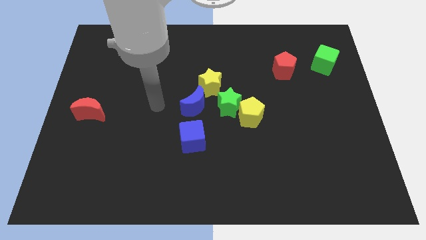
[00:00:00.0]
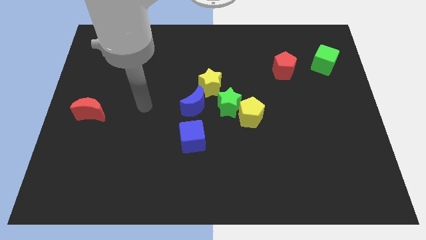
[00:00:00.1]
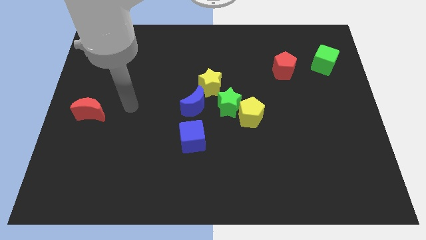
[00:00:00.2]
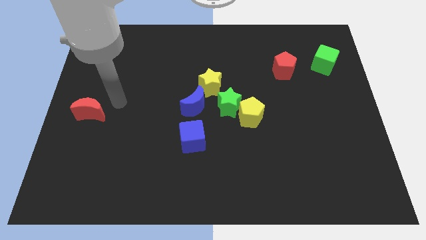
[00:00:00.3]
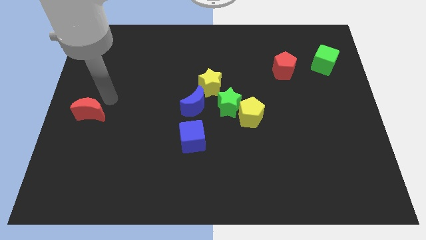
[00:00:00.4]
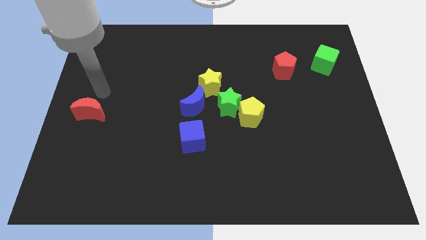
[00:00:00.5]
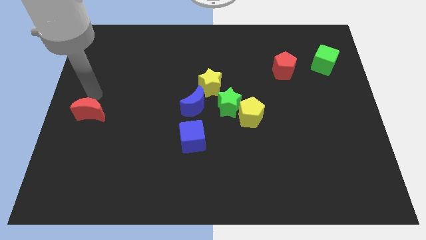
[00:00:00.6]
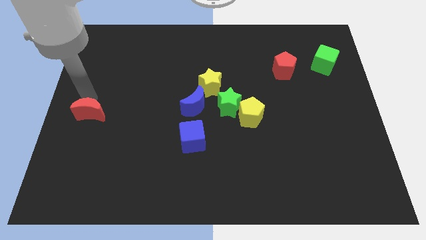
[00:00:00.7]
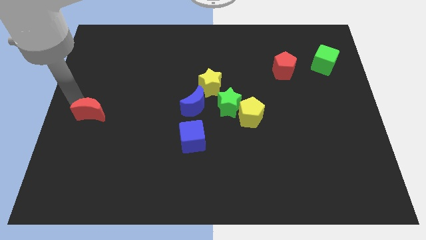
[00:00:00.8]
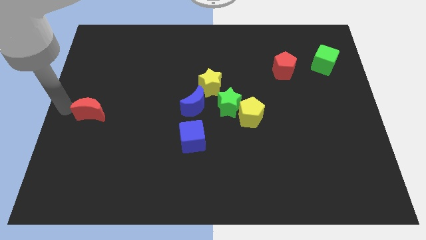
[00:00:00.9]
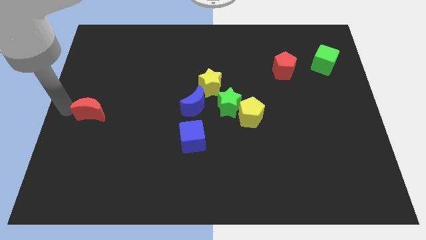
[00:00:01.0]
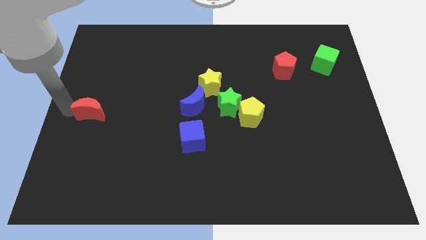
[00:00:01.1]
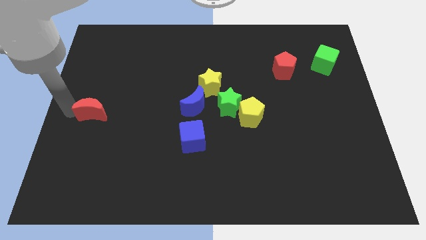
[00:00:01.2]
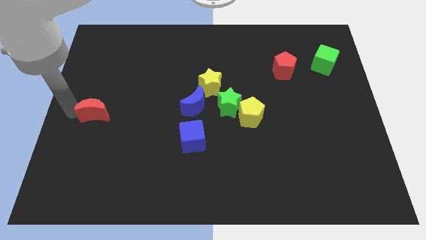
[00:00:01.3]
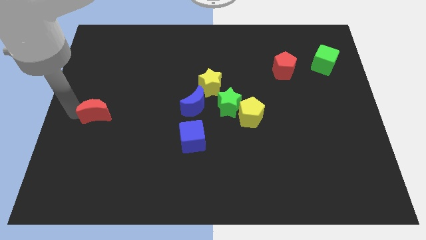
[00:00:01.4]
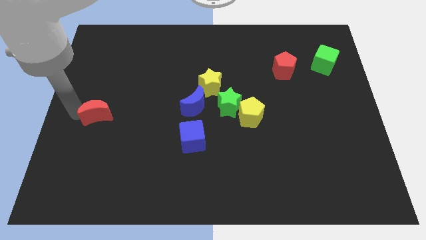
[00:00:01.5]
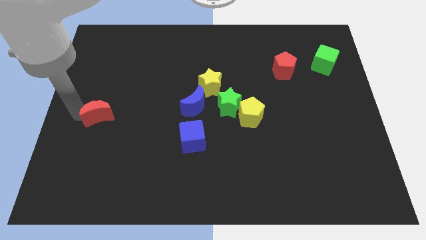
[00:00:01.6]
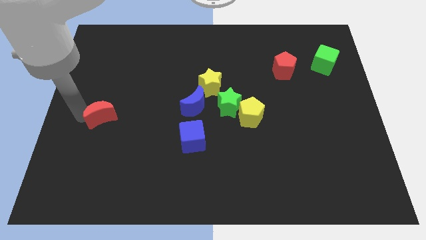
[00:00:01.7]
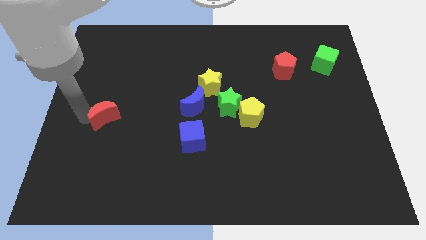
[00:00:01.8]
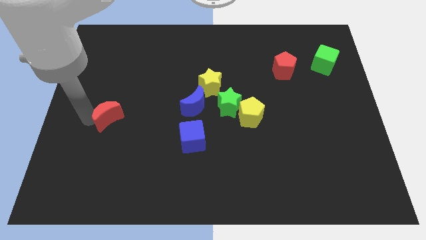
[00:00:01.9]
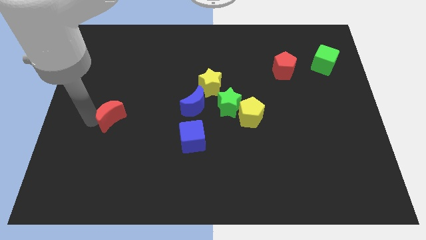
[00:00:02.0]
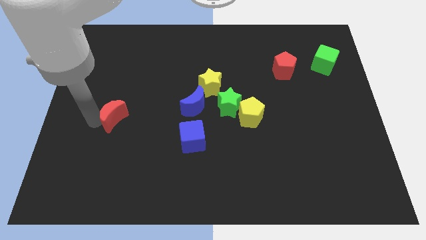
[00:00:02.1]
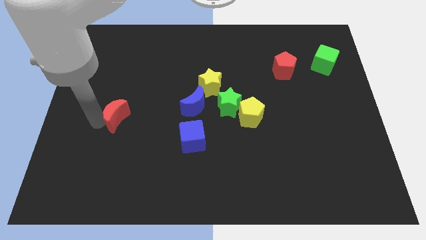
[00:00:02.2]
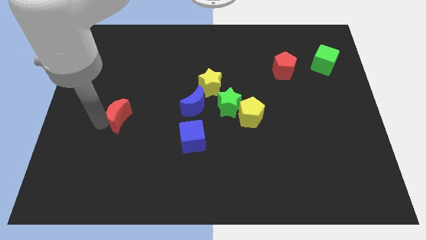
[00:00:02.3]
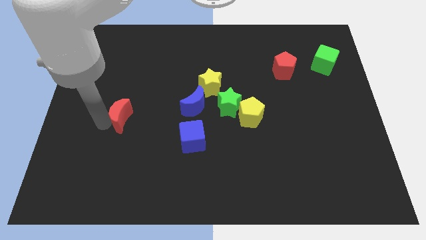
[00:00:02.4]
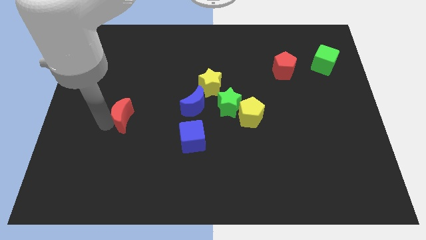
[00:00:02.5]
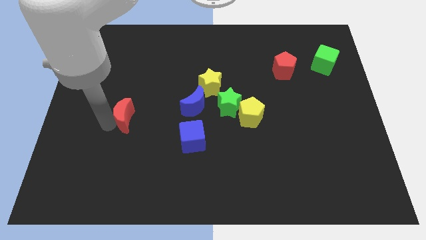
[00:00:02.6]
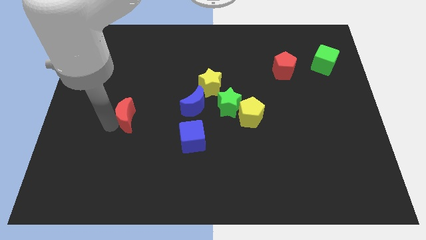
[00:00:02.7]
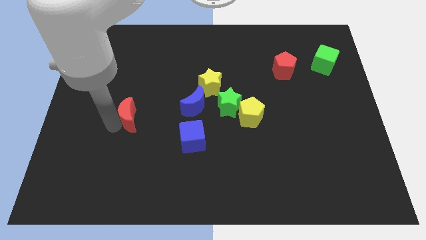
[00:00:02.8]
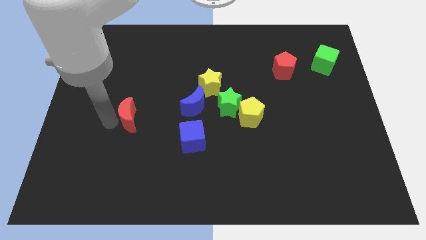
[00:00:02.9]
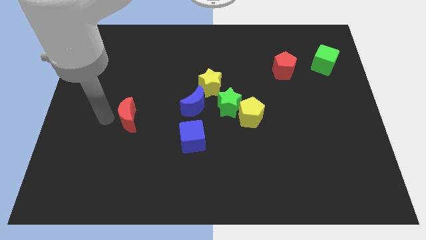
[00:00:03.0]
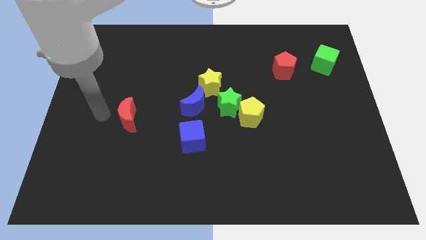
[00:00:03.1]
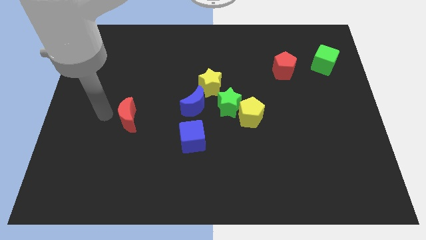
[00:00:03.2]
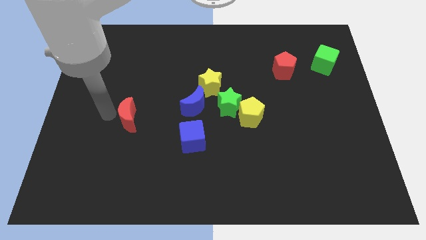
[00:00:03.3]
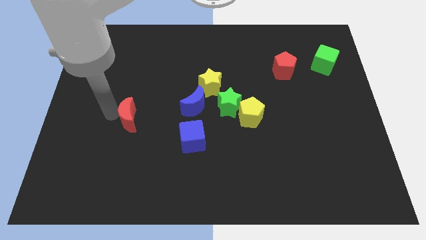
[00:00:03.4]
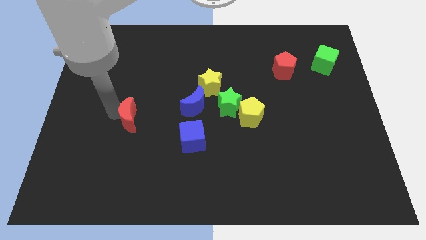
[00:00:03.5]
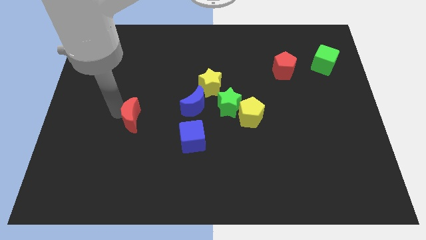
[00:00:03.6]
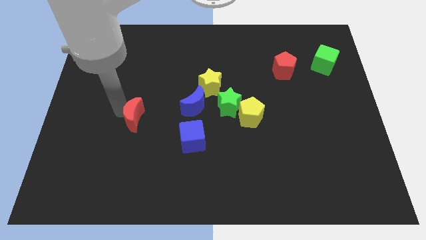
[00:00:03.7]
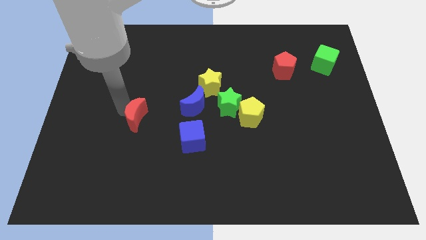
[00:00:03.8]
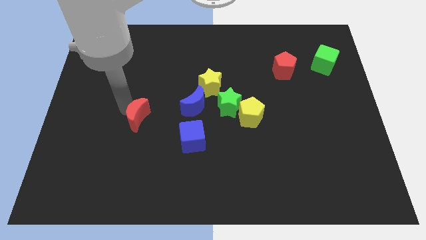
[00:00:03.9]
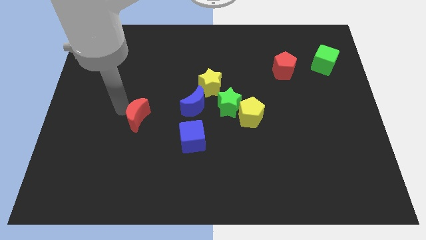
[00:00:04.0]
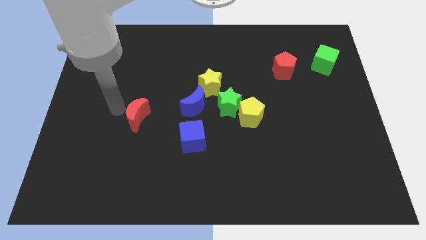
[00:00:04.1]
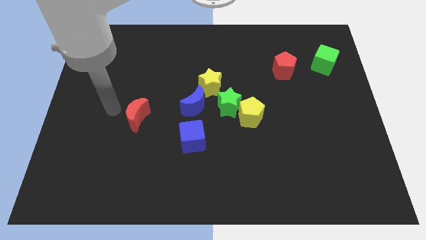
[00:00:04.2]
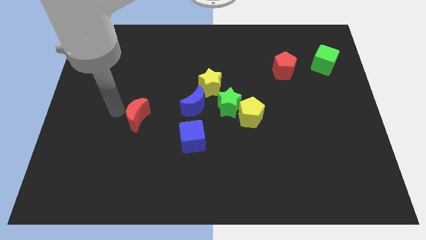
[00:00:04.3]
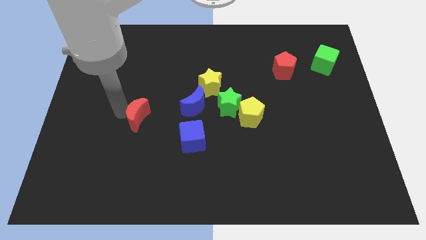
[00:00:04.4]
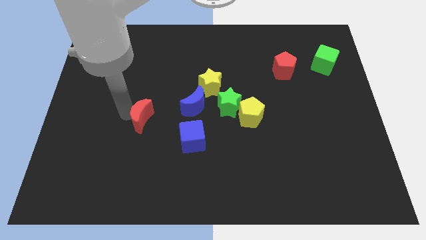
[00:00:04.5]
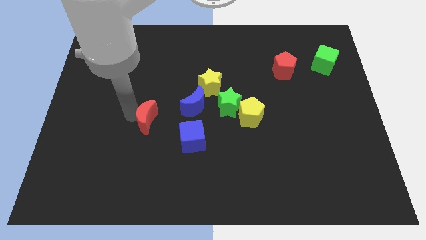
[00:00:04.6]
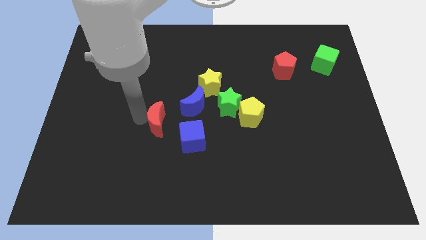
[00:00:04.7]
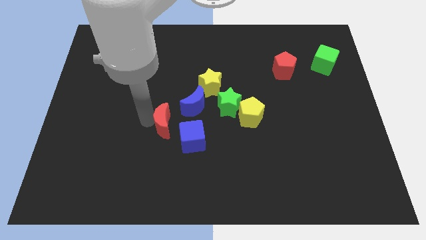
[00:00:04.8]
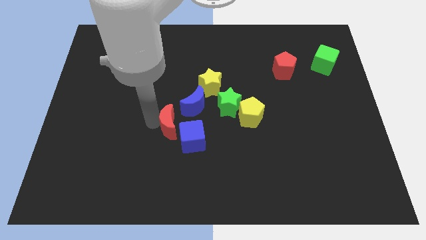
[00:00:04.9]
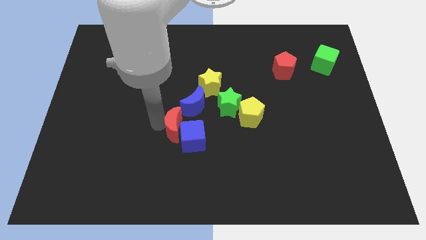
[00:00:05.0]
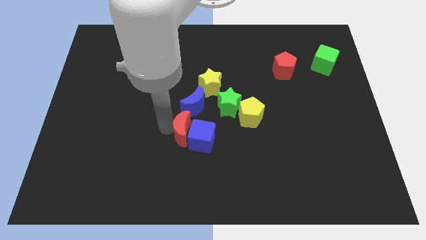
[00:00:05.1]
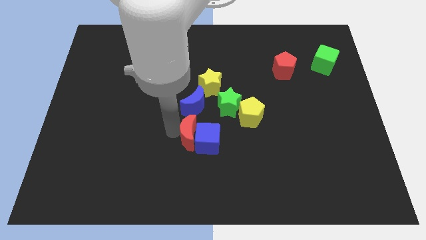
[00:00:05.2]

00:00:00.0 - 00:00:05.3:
move the red moon diagonally down and to the left of the green star

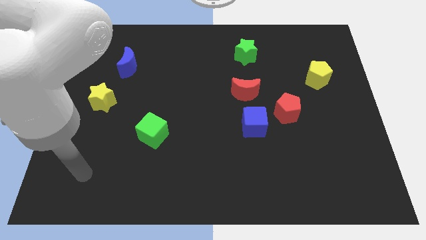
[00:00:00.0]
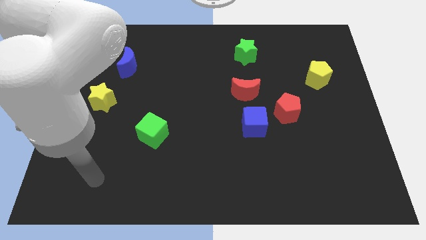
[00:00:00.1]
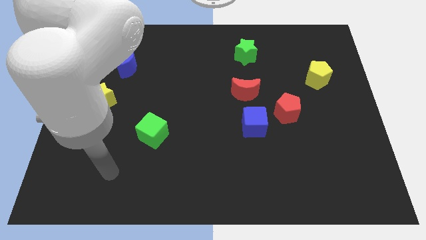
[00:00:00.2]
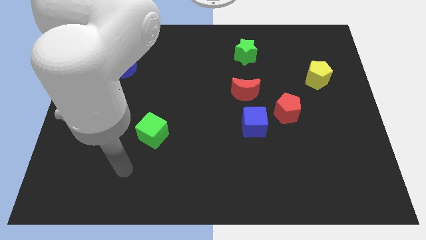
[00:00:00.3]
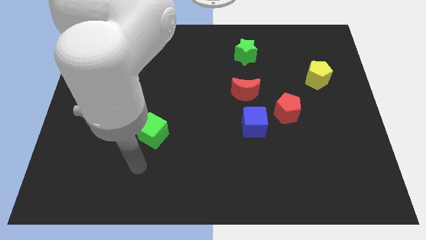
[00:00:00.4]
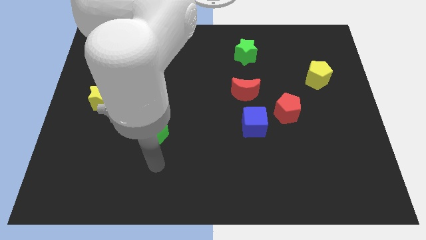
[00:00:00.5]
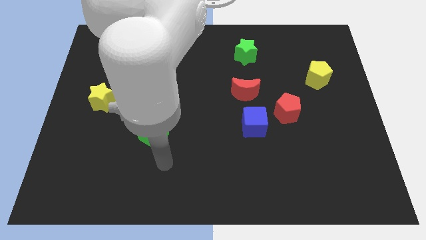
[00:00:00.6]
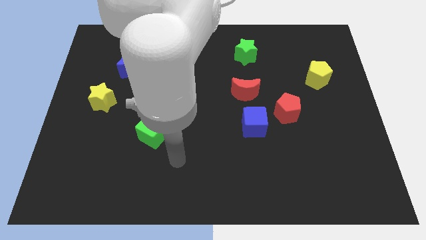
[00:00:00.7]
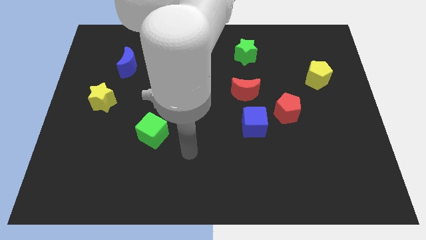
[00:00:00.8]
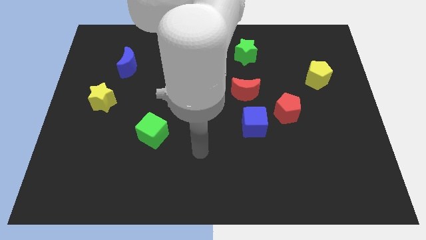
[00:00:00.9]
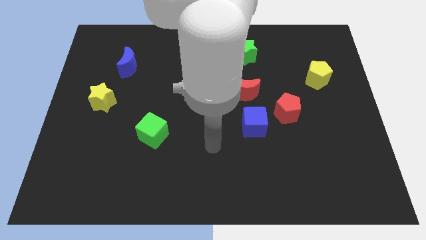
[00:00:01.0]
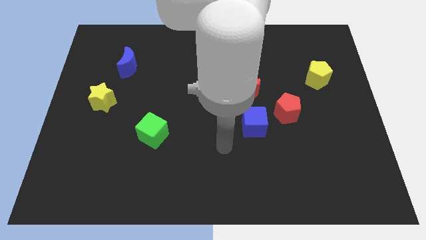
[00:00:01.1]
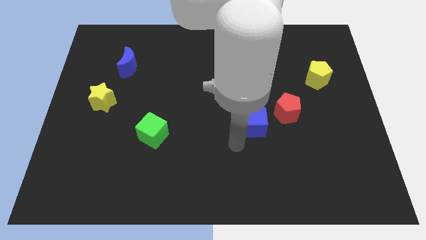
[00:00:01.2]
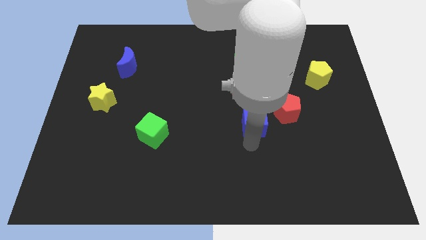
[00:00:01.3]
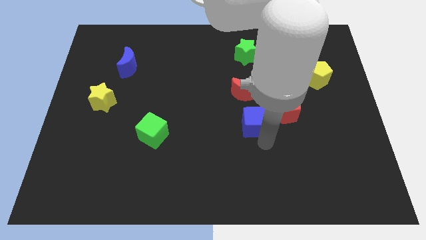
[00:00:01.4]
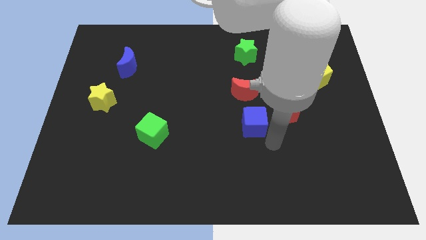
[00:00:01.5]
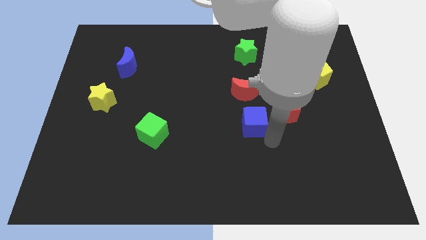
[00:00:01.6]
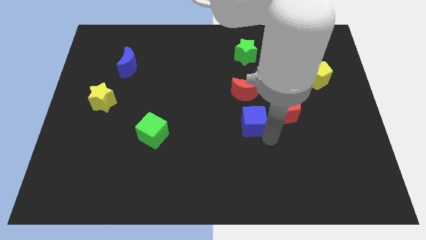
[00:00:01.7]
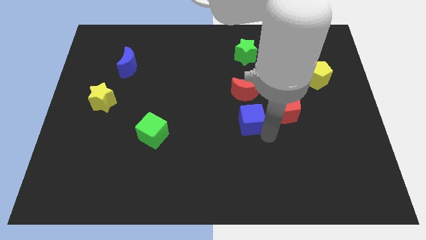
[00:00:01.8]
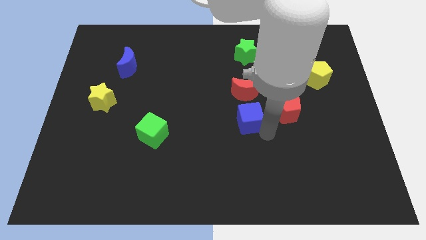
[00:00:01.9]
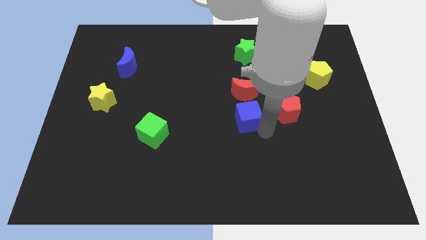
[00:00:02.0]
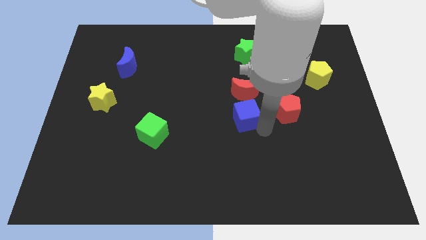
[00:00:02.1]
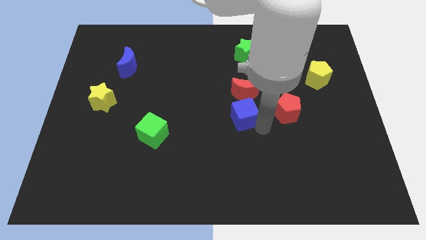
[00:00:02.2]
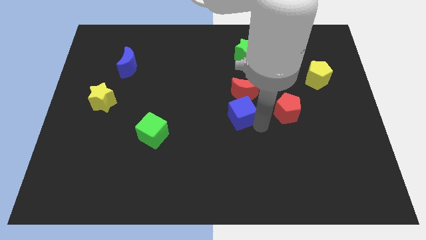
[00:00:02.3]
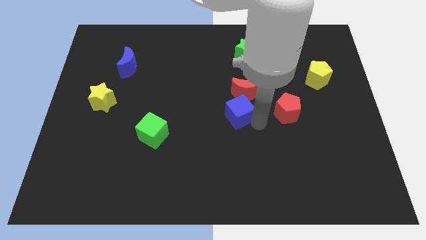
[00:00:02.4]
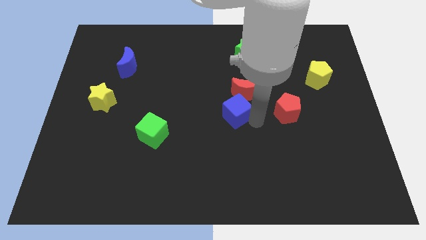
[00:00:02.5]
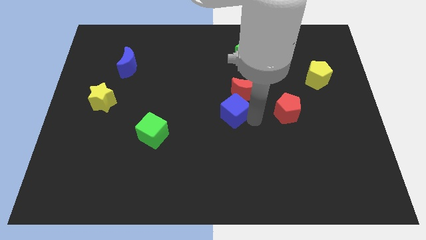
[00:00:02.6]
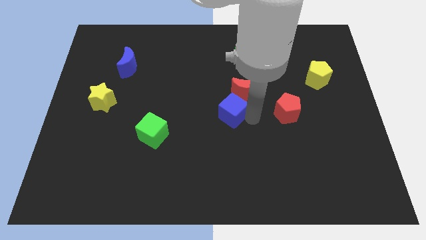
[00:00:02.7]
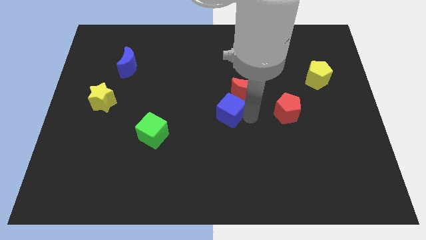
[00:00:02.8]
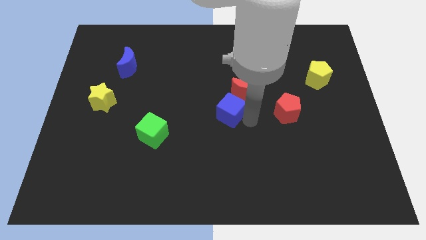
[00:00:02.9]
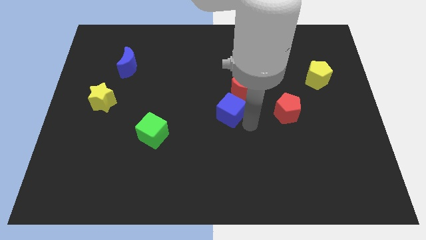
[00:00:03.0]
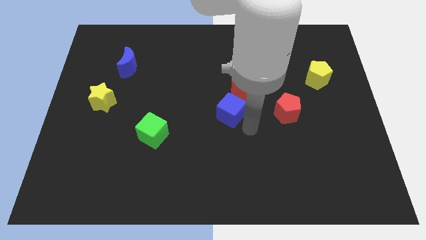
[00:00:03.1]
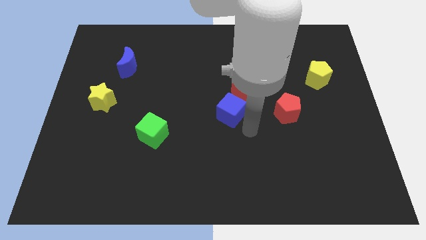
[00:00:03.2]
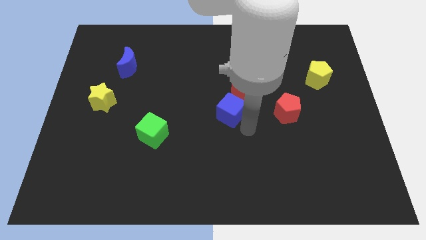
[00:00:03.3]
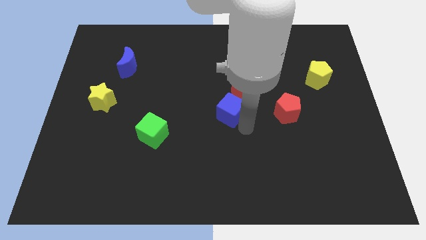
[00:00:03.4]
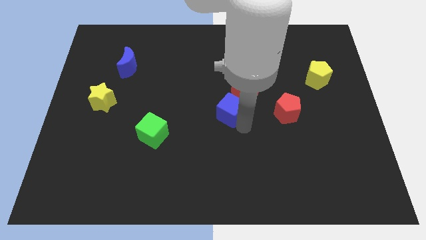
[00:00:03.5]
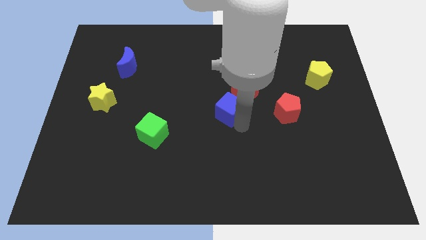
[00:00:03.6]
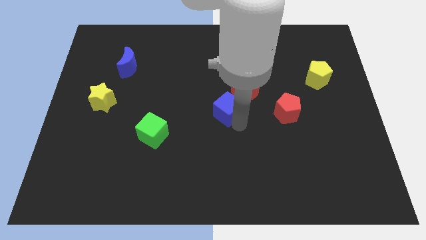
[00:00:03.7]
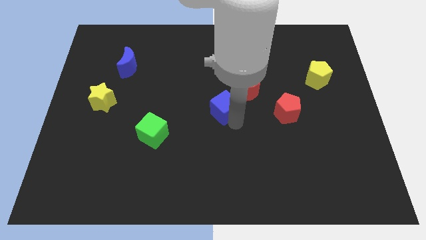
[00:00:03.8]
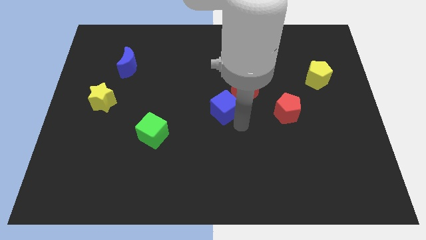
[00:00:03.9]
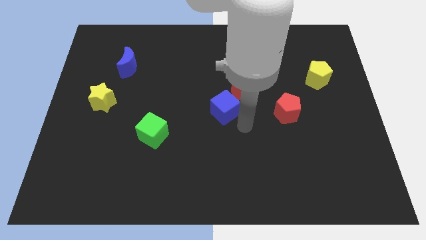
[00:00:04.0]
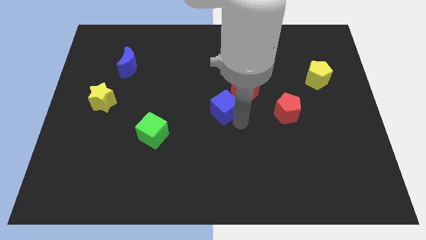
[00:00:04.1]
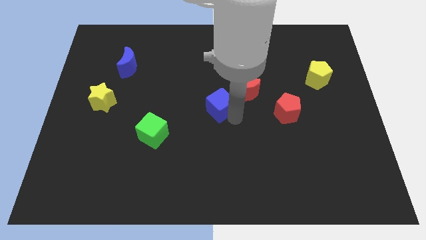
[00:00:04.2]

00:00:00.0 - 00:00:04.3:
push the blue cube to the left of the red moon
